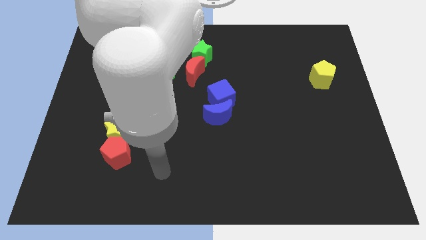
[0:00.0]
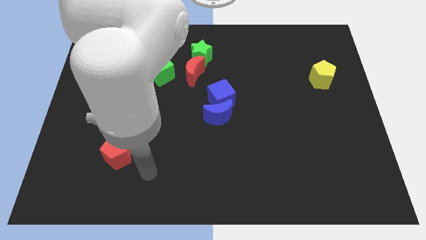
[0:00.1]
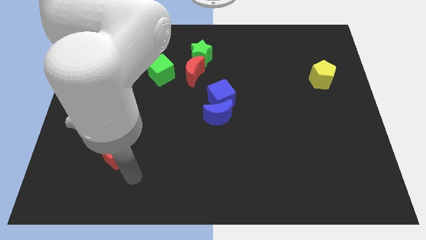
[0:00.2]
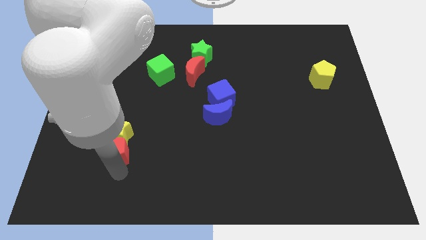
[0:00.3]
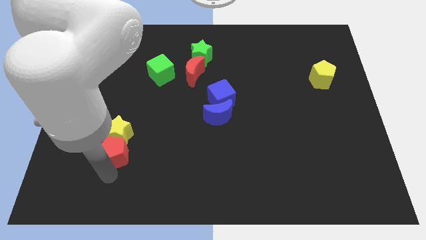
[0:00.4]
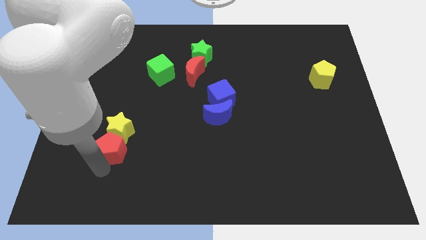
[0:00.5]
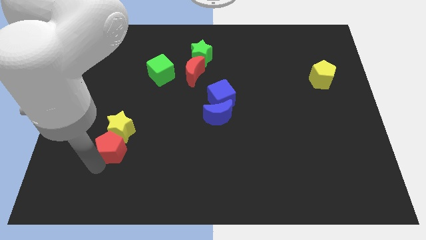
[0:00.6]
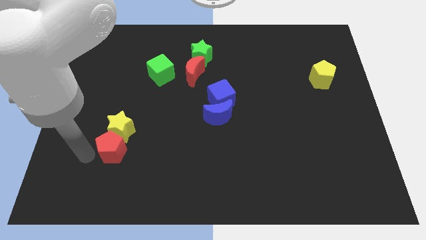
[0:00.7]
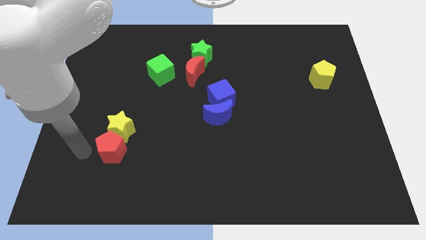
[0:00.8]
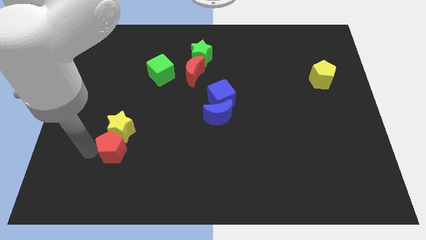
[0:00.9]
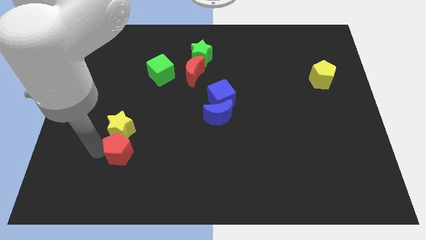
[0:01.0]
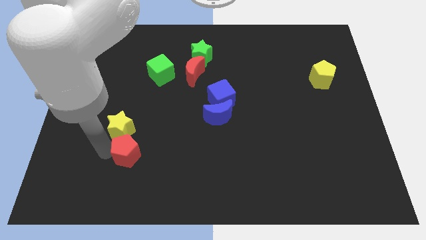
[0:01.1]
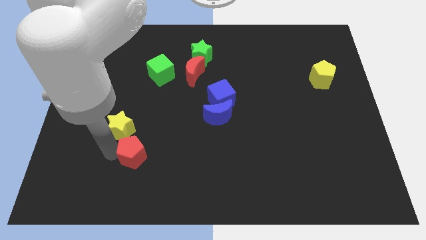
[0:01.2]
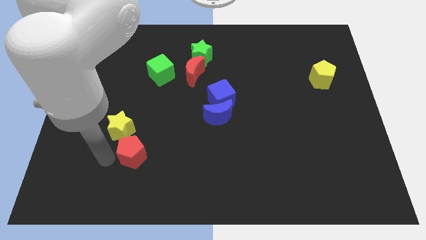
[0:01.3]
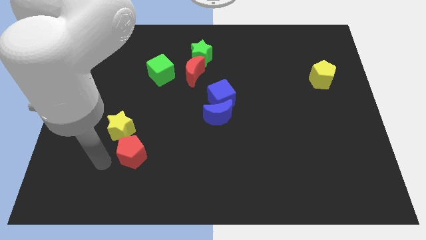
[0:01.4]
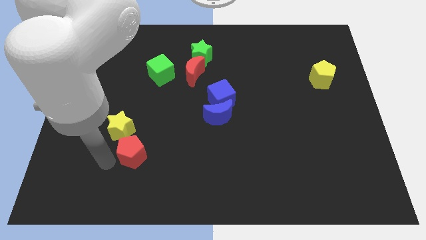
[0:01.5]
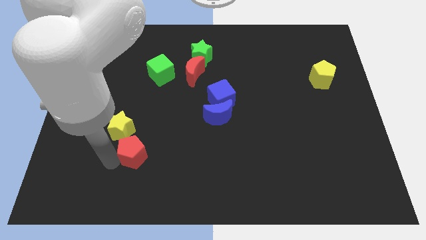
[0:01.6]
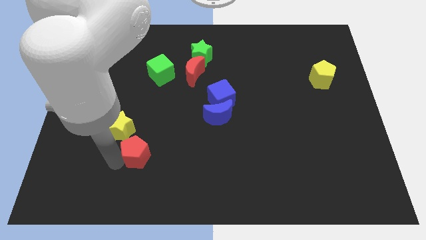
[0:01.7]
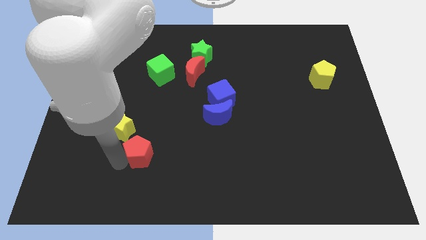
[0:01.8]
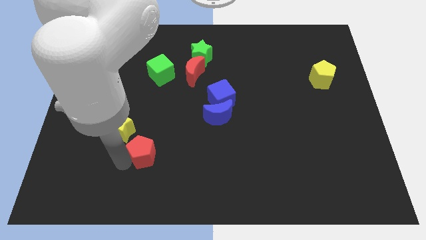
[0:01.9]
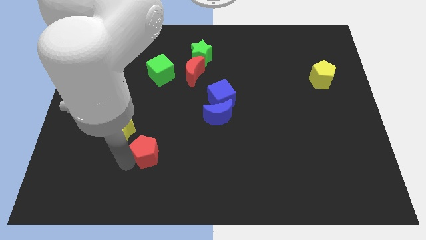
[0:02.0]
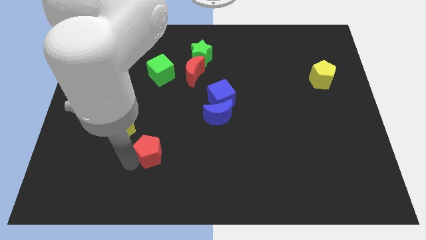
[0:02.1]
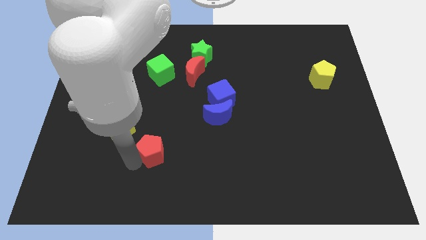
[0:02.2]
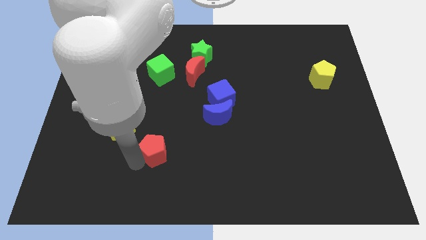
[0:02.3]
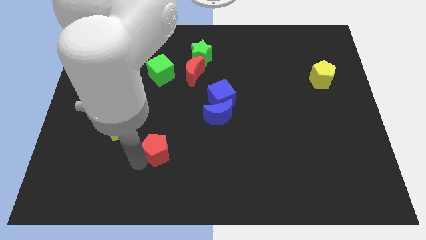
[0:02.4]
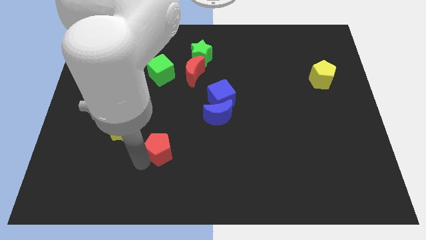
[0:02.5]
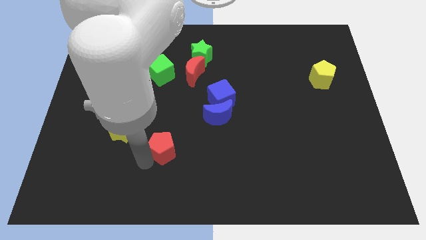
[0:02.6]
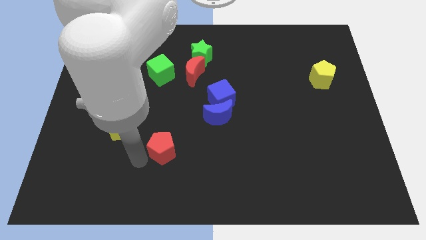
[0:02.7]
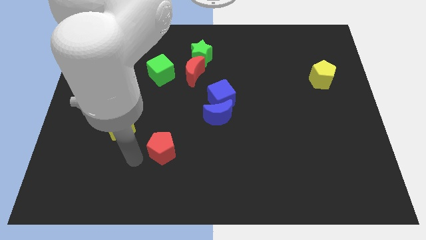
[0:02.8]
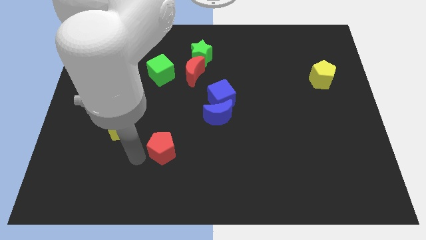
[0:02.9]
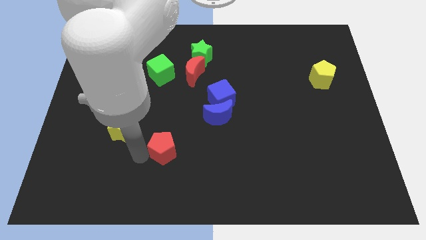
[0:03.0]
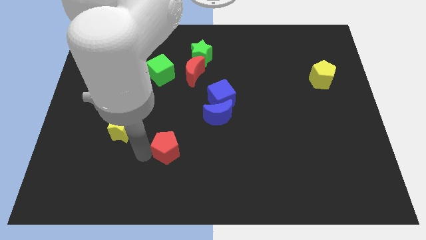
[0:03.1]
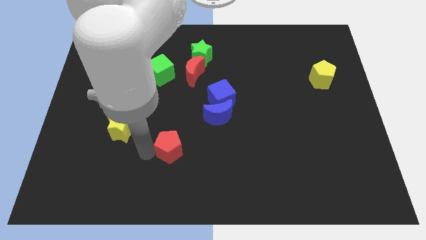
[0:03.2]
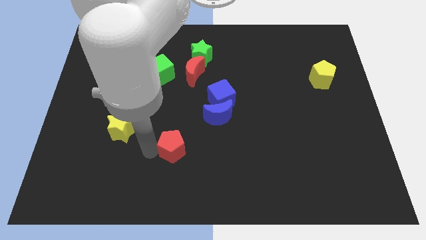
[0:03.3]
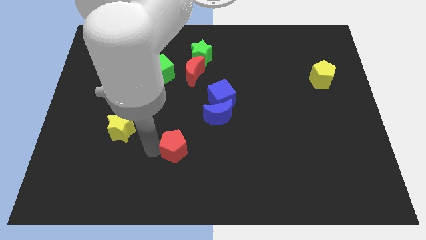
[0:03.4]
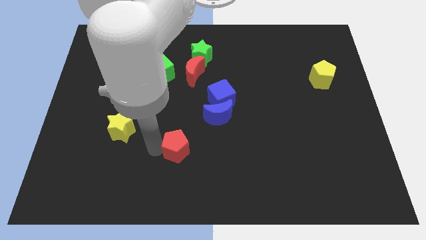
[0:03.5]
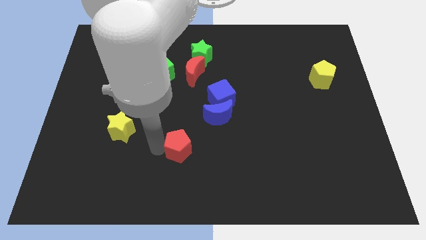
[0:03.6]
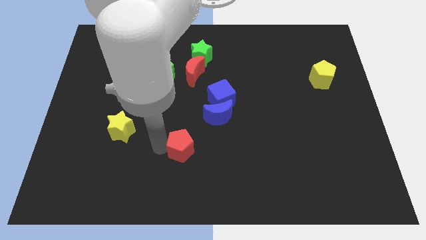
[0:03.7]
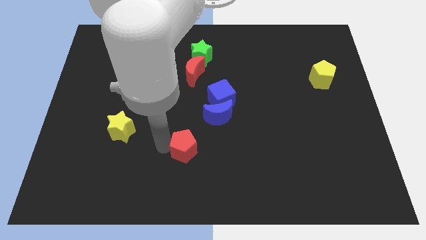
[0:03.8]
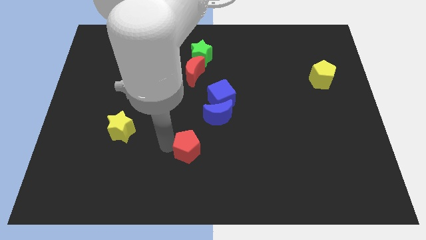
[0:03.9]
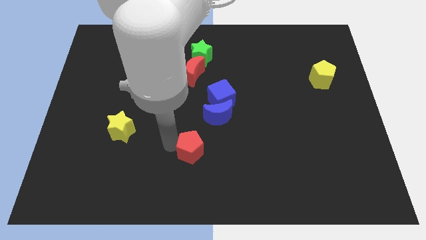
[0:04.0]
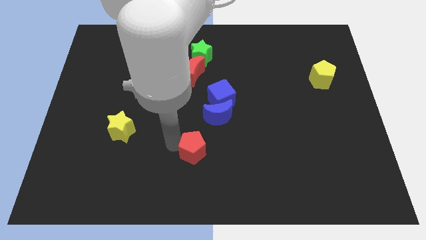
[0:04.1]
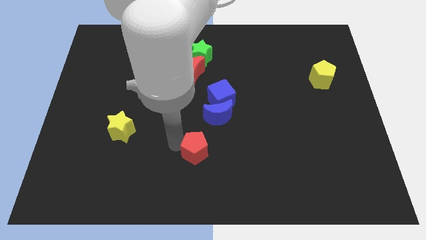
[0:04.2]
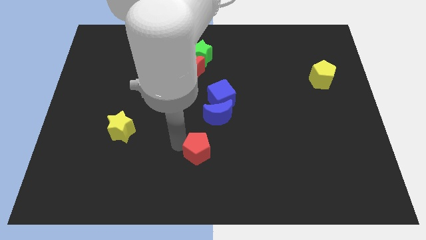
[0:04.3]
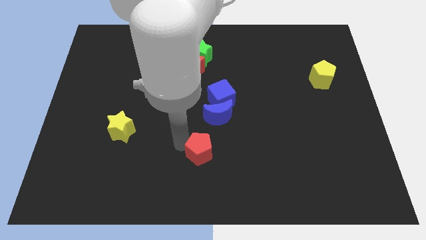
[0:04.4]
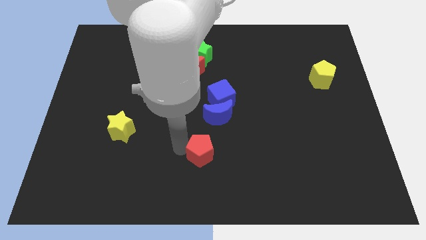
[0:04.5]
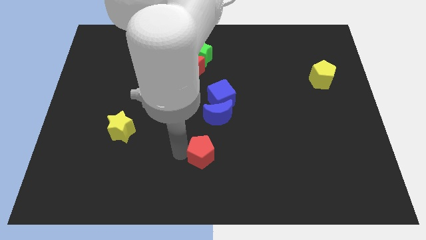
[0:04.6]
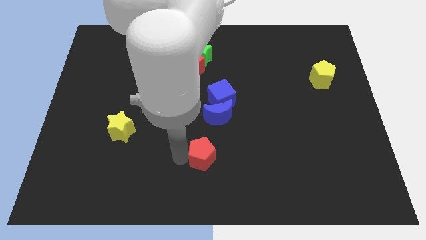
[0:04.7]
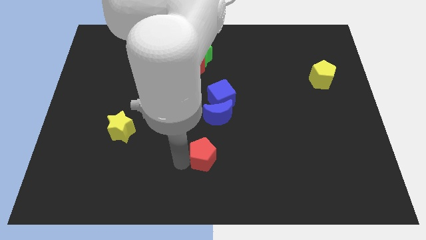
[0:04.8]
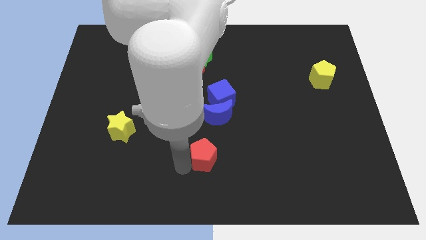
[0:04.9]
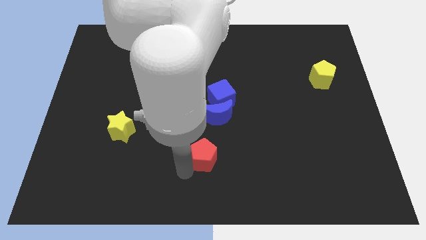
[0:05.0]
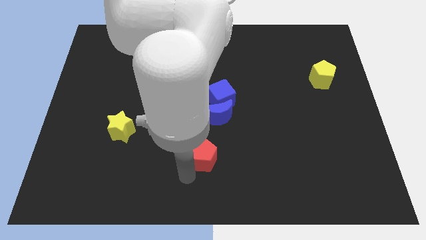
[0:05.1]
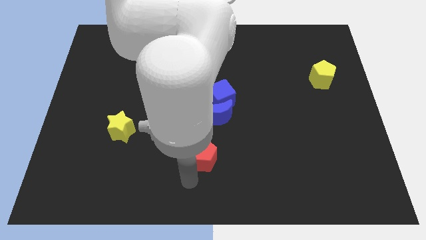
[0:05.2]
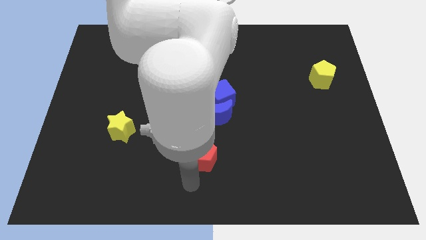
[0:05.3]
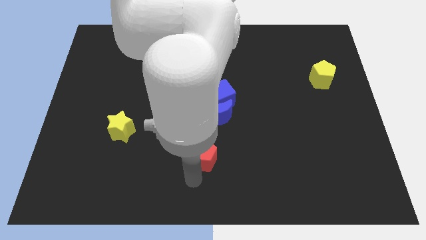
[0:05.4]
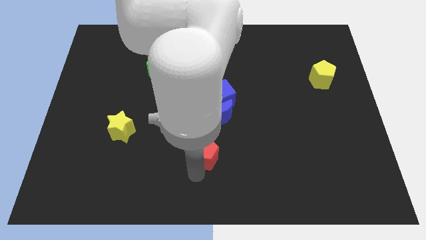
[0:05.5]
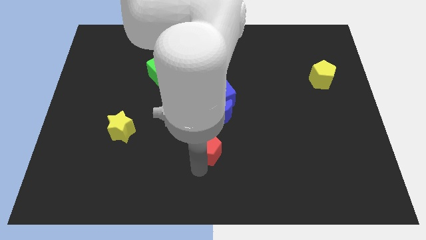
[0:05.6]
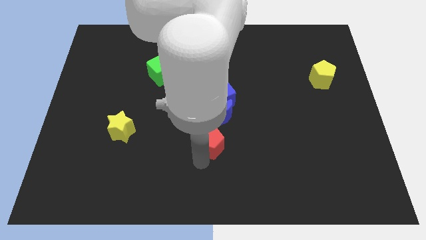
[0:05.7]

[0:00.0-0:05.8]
slide the red pentagon to the right

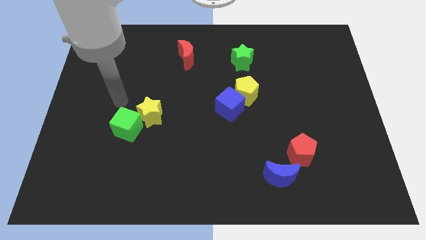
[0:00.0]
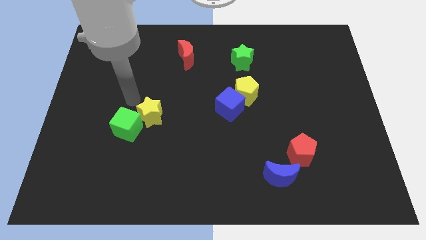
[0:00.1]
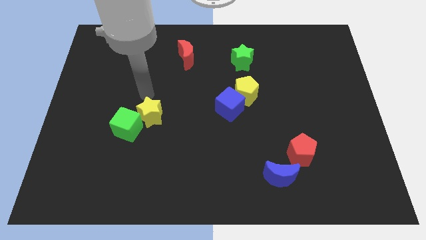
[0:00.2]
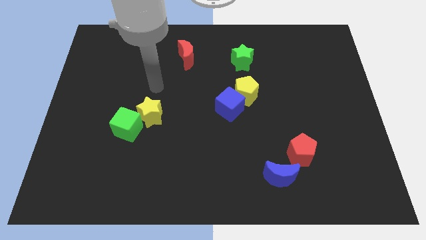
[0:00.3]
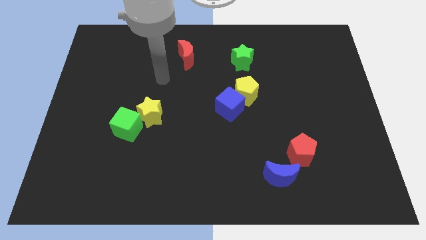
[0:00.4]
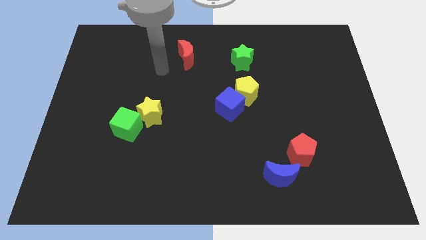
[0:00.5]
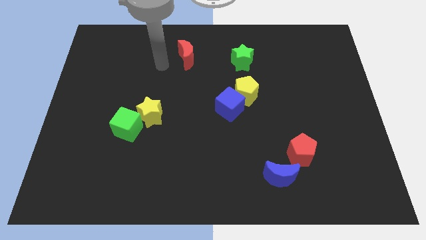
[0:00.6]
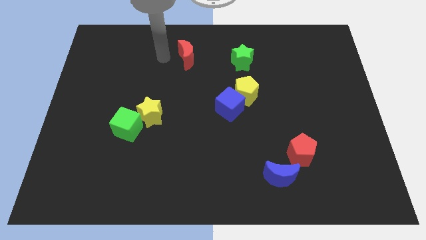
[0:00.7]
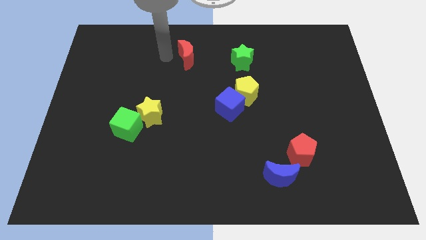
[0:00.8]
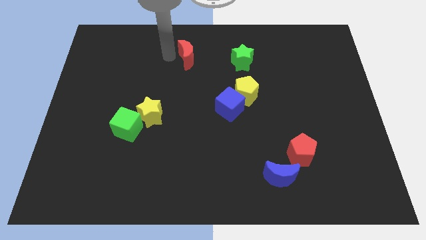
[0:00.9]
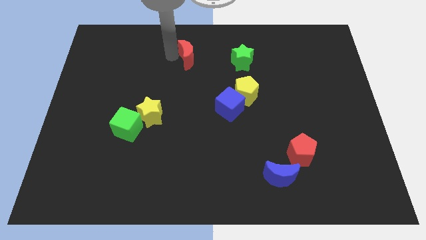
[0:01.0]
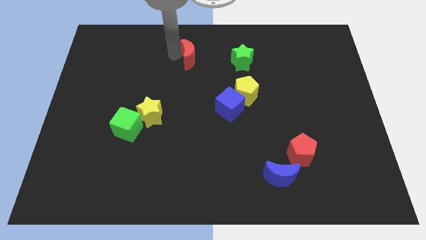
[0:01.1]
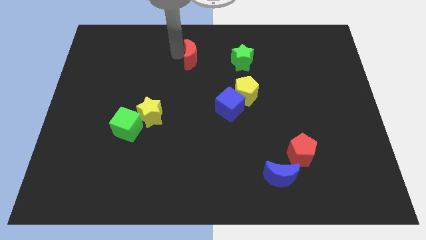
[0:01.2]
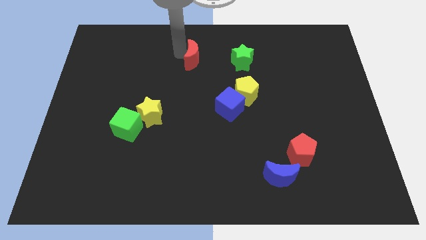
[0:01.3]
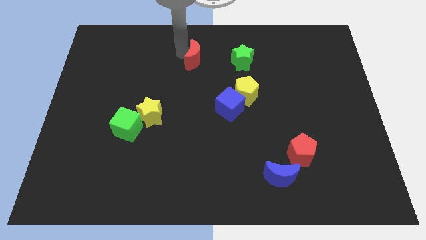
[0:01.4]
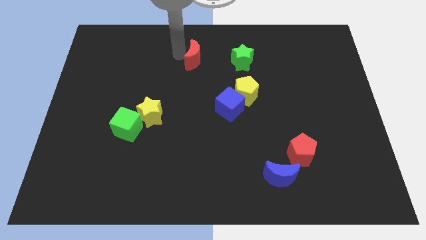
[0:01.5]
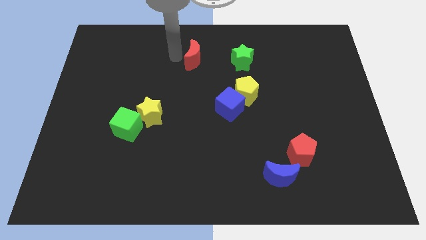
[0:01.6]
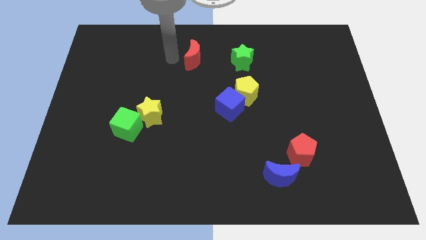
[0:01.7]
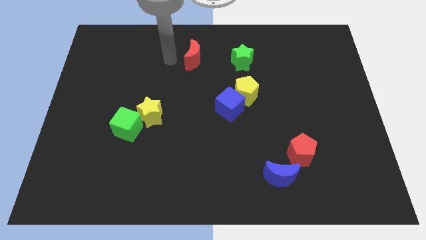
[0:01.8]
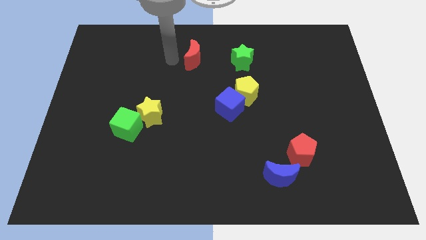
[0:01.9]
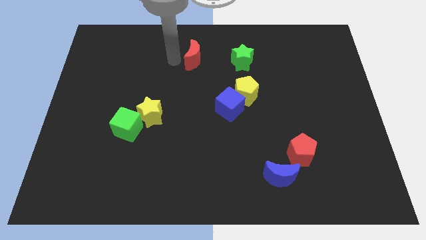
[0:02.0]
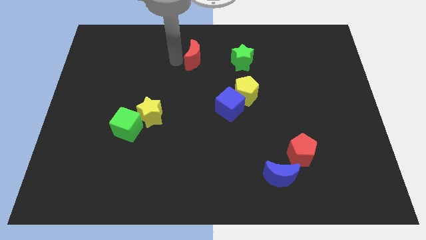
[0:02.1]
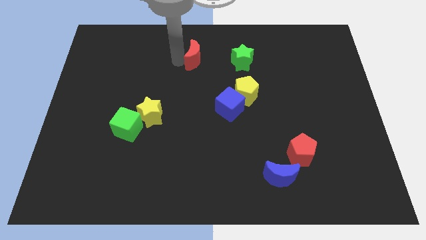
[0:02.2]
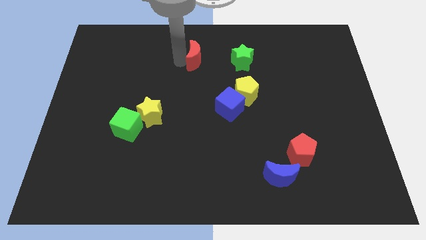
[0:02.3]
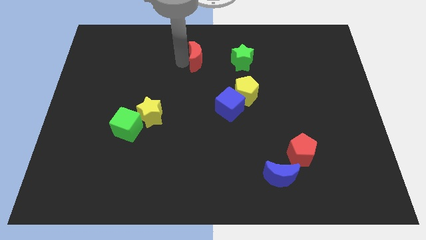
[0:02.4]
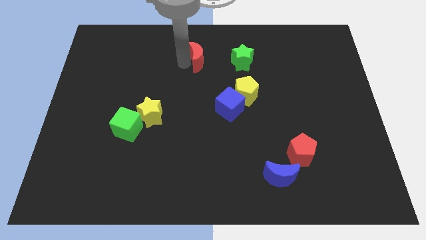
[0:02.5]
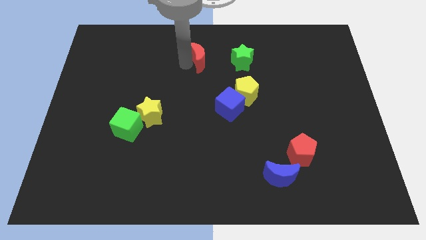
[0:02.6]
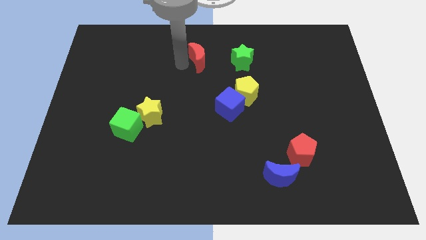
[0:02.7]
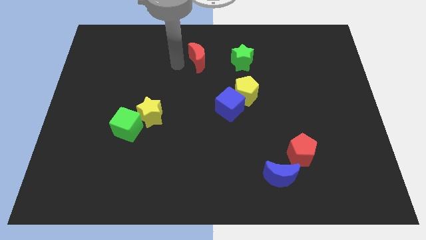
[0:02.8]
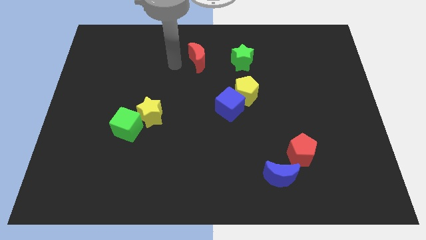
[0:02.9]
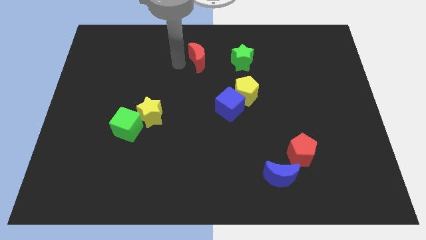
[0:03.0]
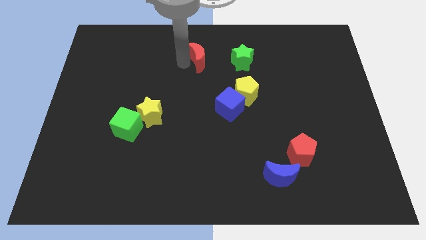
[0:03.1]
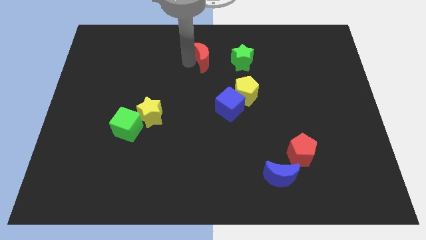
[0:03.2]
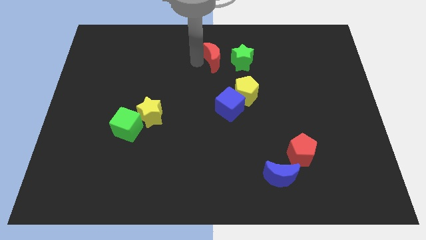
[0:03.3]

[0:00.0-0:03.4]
push the red moon right a bit
